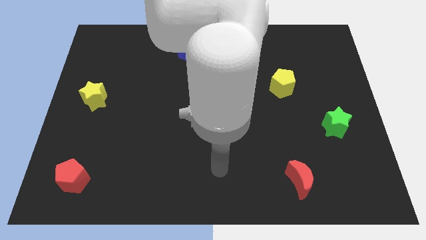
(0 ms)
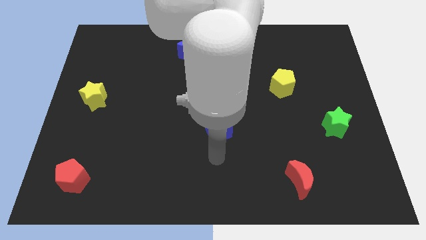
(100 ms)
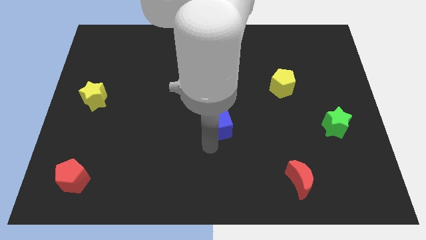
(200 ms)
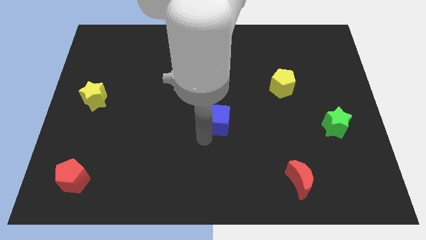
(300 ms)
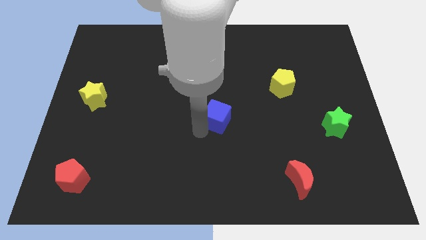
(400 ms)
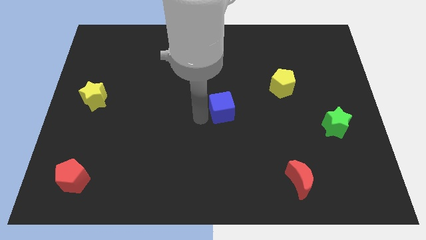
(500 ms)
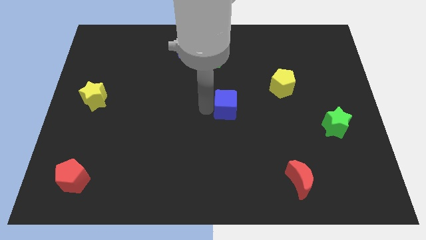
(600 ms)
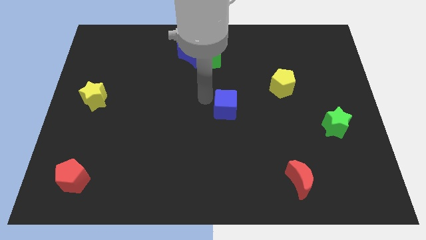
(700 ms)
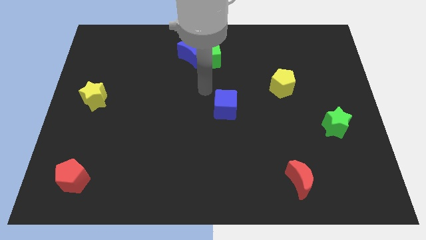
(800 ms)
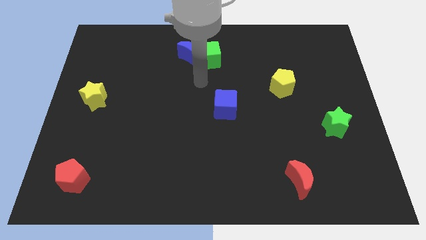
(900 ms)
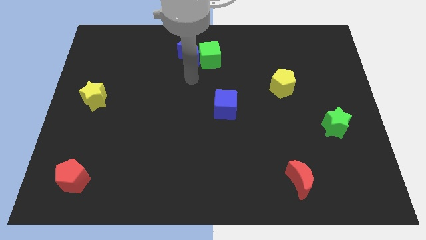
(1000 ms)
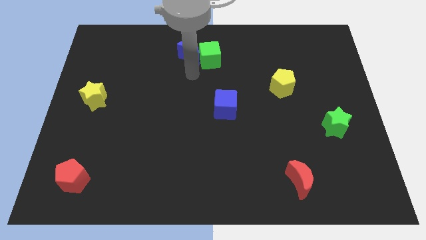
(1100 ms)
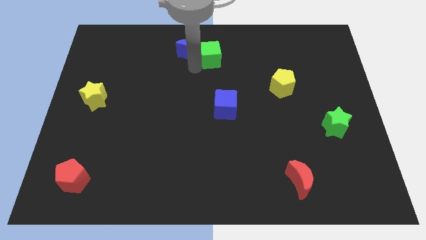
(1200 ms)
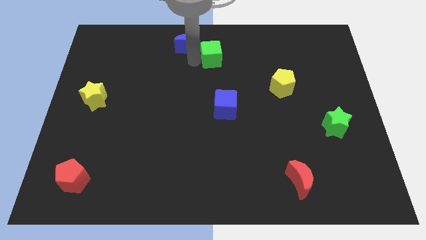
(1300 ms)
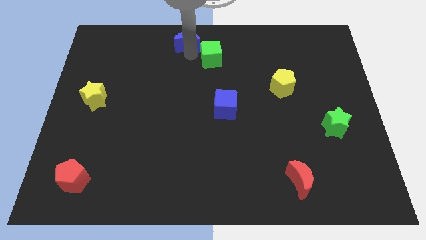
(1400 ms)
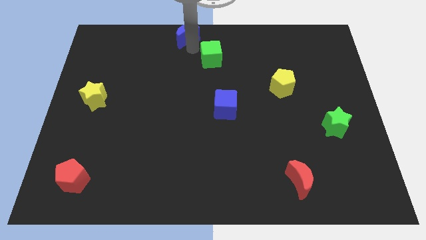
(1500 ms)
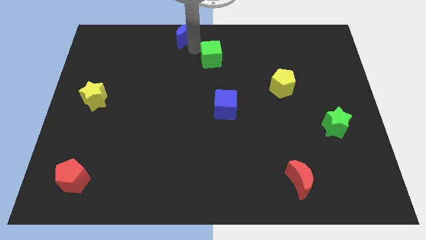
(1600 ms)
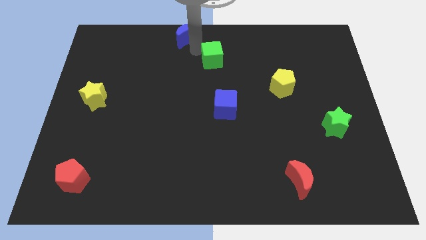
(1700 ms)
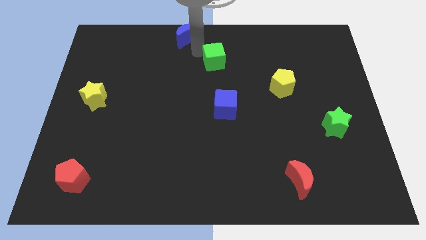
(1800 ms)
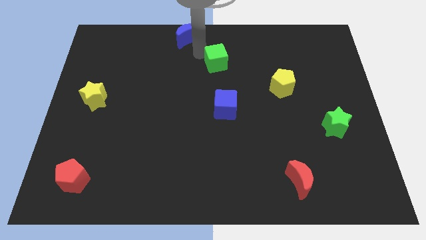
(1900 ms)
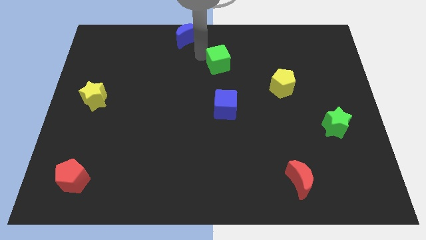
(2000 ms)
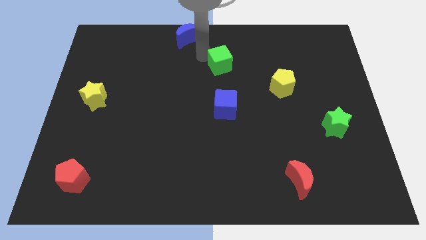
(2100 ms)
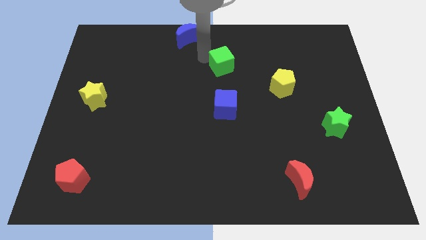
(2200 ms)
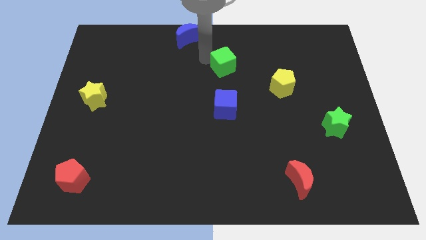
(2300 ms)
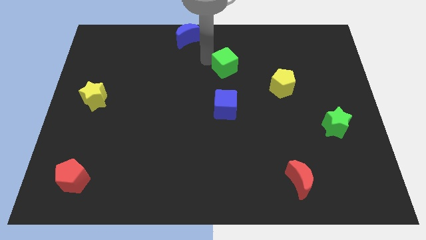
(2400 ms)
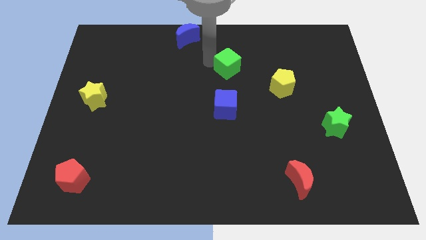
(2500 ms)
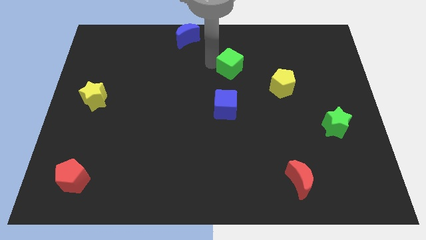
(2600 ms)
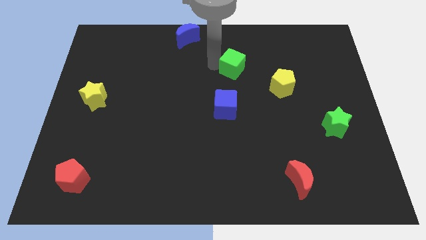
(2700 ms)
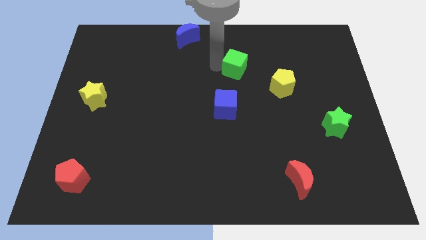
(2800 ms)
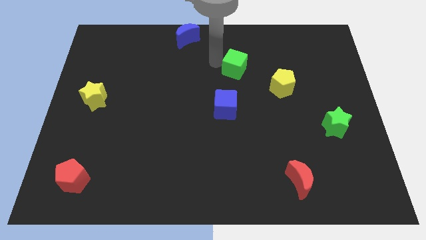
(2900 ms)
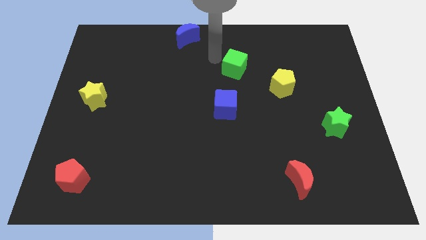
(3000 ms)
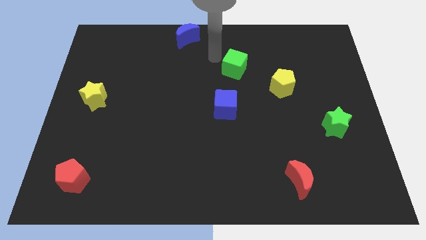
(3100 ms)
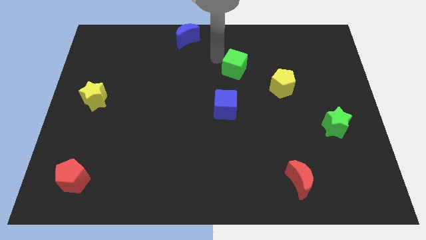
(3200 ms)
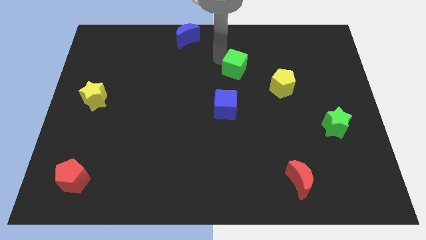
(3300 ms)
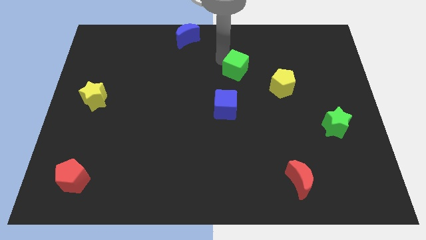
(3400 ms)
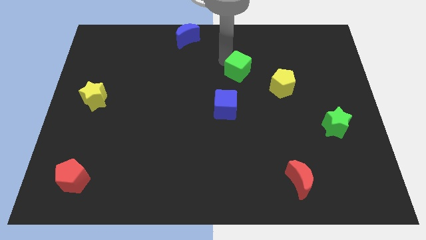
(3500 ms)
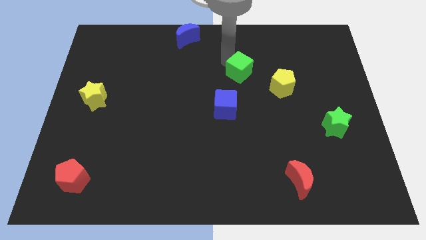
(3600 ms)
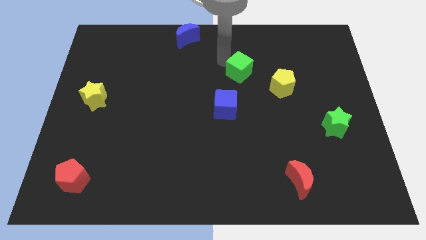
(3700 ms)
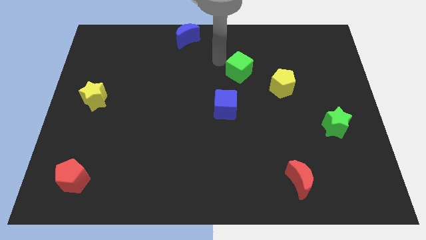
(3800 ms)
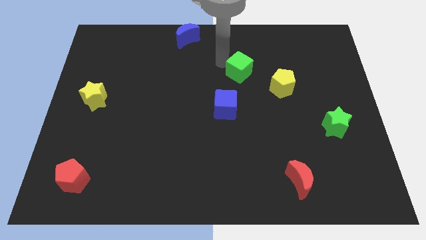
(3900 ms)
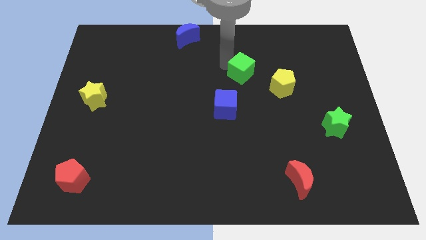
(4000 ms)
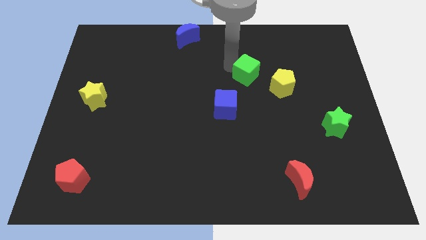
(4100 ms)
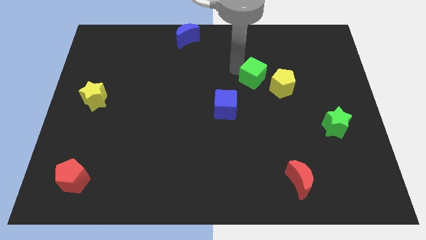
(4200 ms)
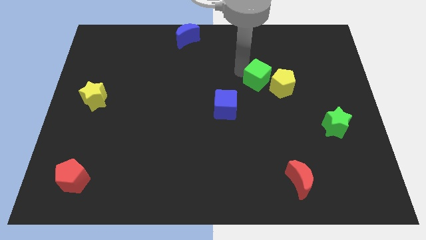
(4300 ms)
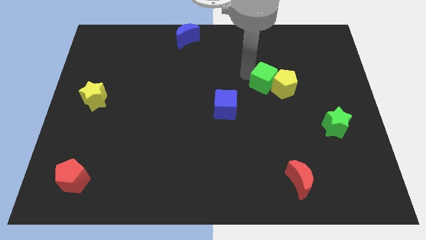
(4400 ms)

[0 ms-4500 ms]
slide the green cube next to the yellow pentagon

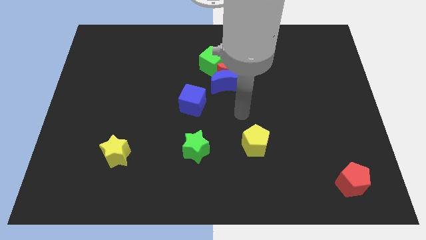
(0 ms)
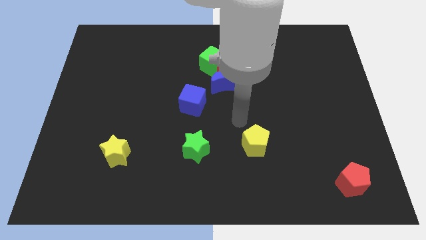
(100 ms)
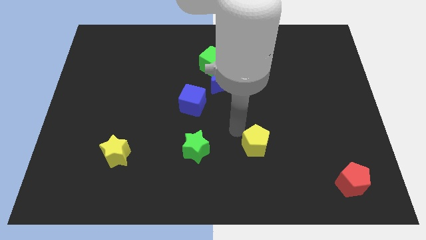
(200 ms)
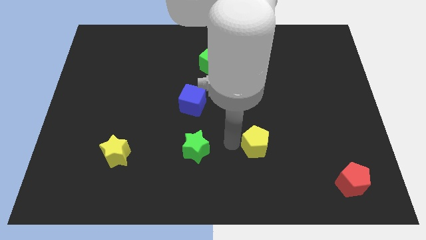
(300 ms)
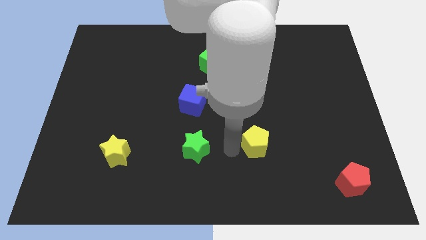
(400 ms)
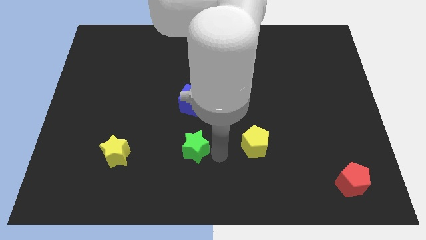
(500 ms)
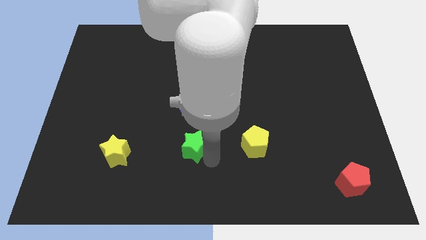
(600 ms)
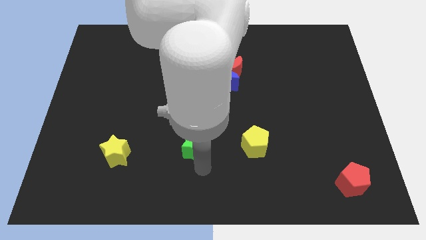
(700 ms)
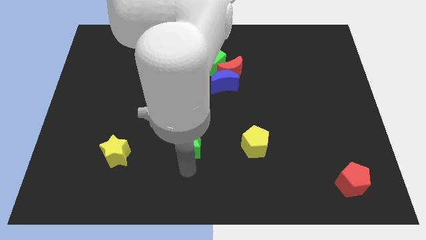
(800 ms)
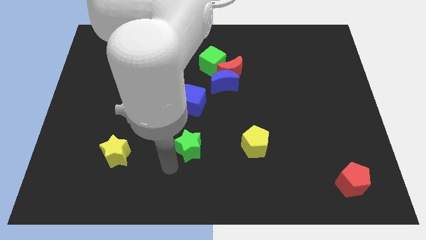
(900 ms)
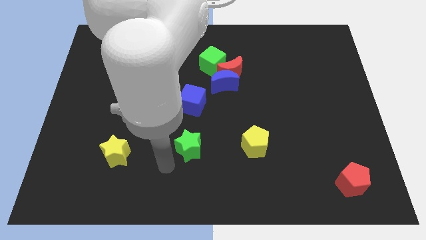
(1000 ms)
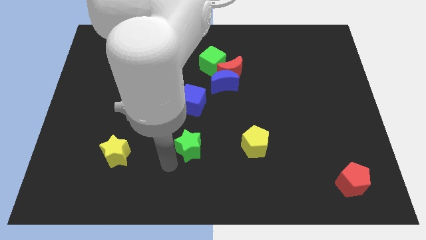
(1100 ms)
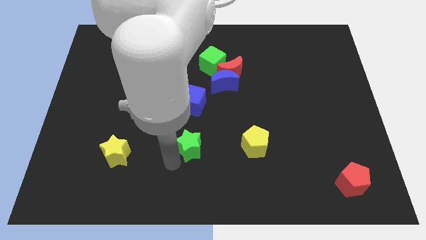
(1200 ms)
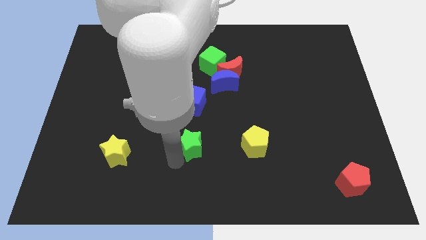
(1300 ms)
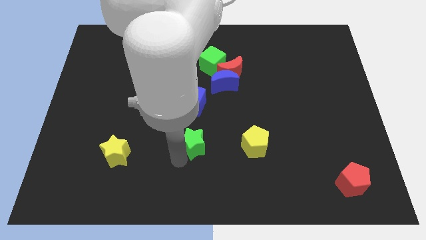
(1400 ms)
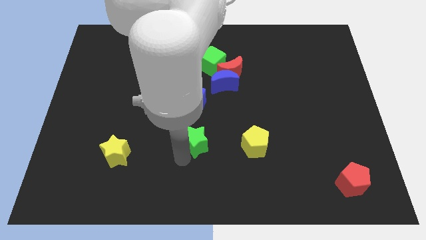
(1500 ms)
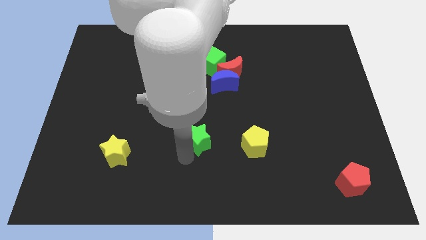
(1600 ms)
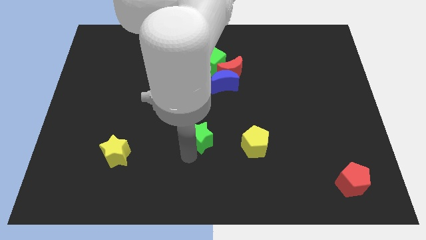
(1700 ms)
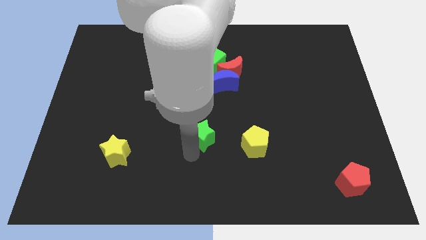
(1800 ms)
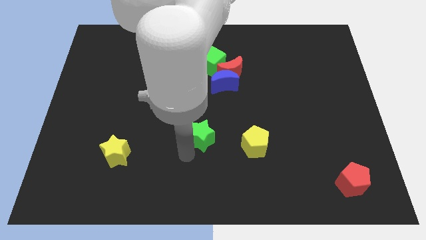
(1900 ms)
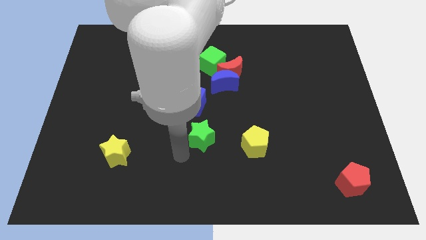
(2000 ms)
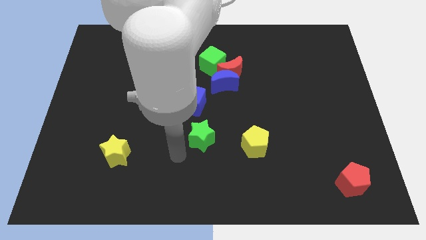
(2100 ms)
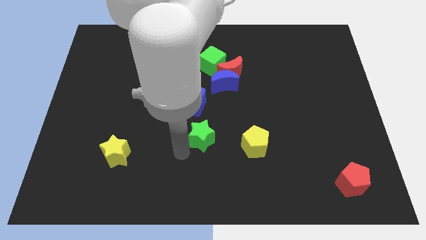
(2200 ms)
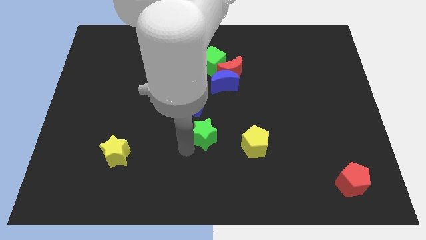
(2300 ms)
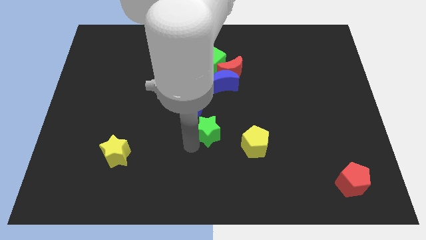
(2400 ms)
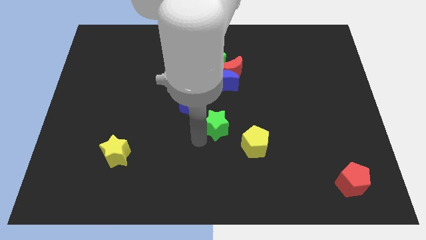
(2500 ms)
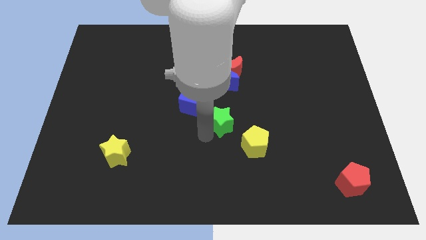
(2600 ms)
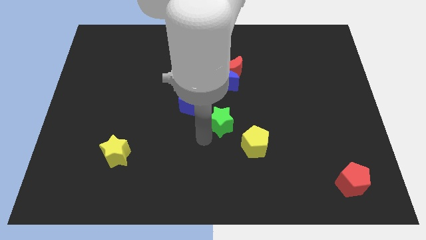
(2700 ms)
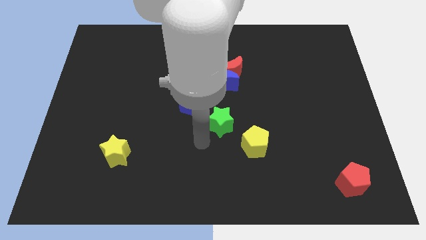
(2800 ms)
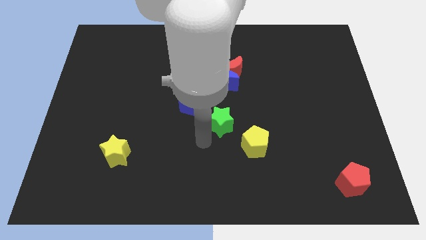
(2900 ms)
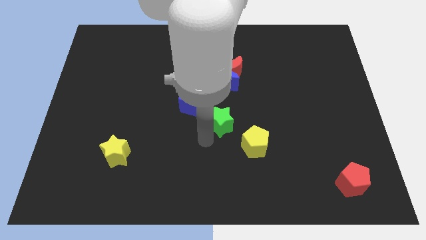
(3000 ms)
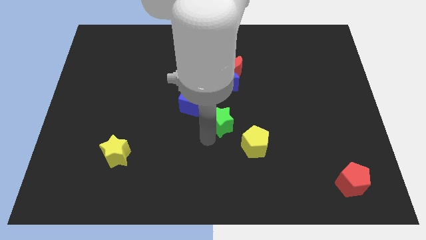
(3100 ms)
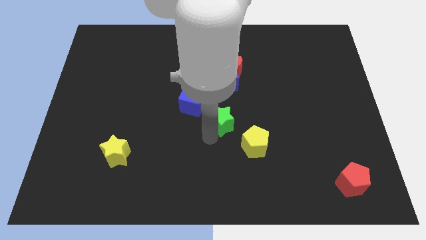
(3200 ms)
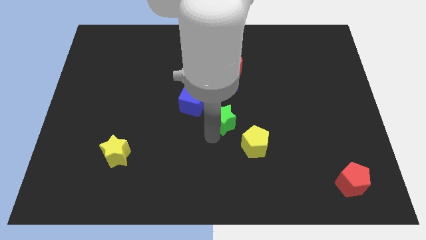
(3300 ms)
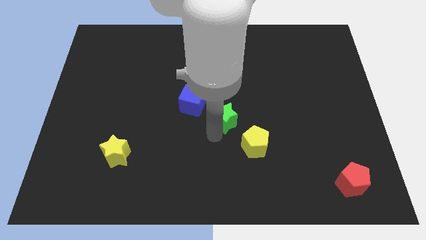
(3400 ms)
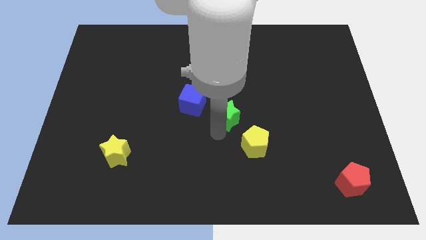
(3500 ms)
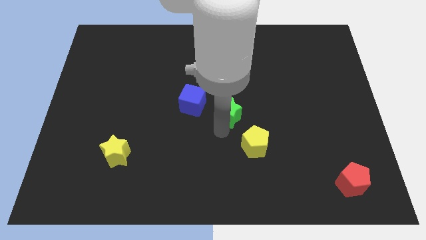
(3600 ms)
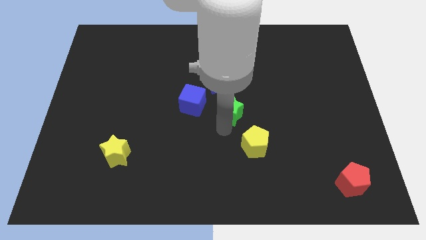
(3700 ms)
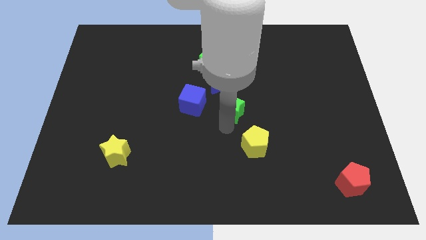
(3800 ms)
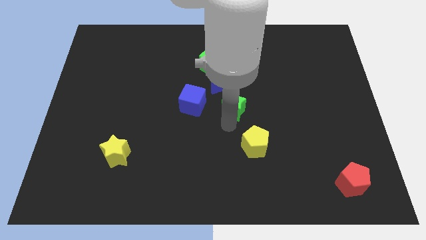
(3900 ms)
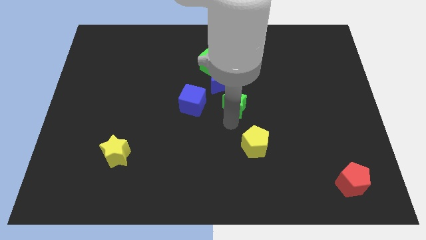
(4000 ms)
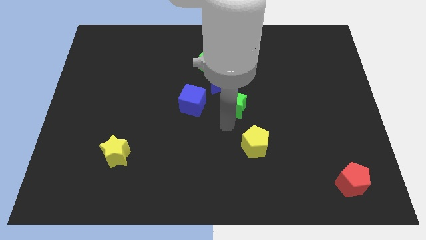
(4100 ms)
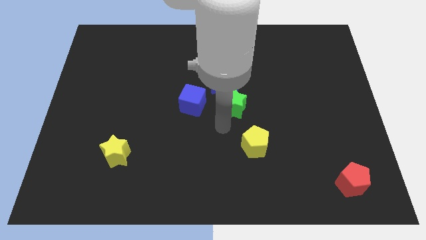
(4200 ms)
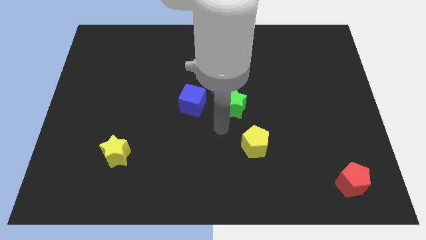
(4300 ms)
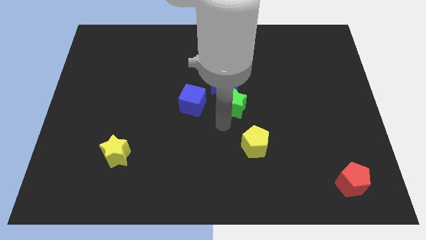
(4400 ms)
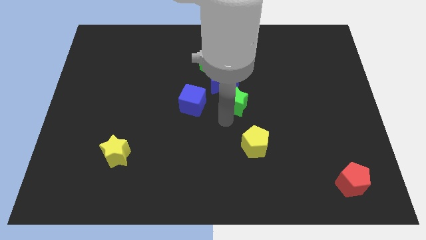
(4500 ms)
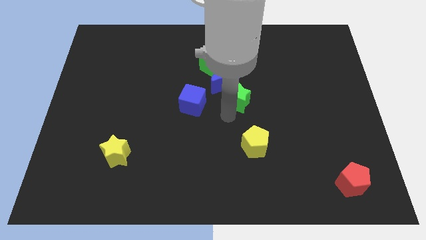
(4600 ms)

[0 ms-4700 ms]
slide the green star close to the blue moon
